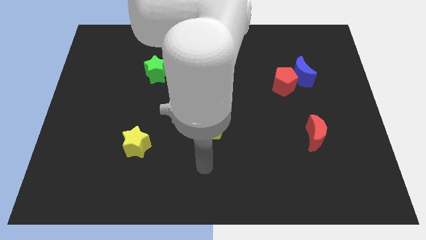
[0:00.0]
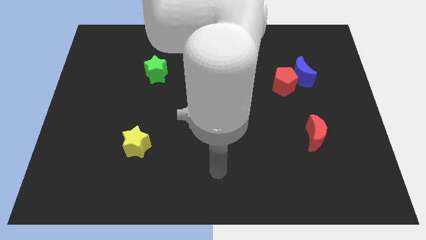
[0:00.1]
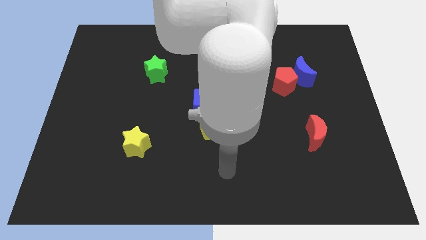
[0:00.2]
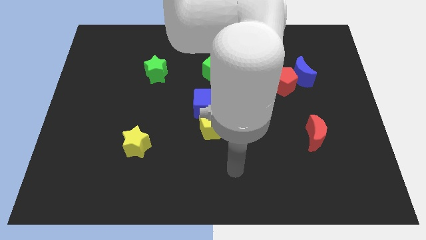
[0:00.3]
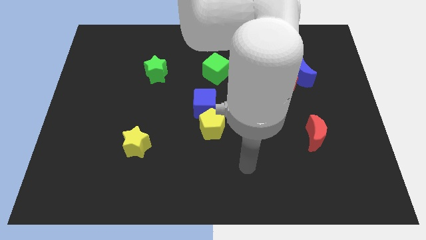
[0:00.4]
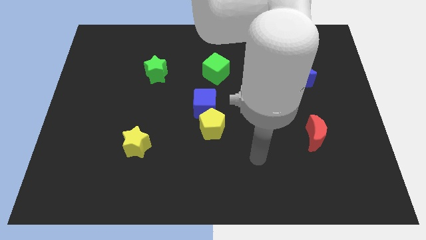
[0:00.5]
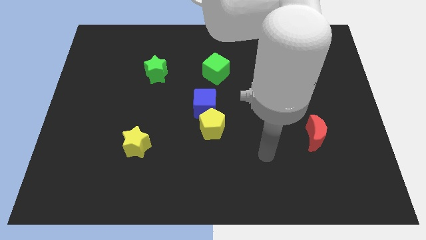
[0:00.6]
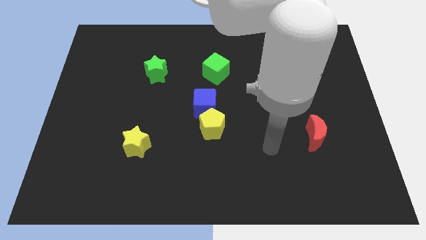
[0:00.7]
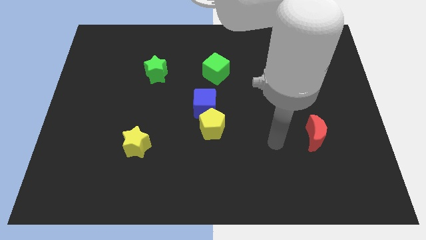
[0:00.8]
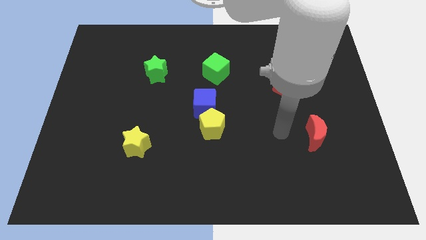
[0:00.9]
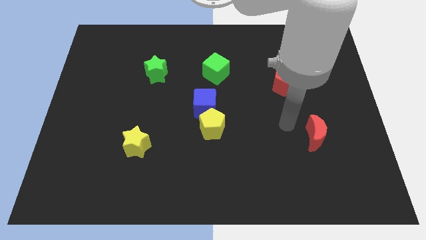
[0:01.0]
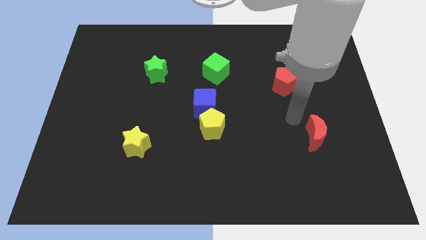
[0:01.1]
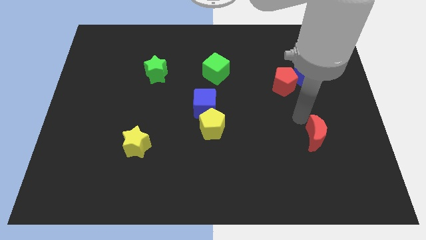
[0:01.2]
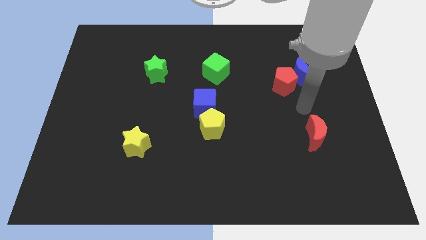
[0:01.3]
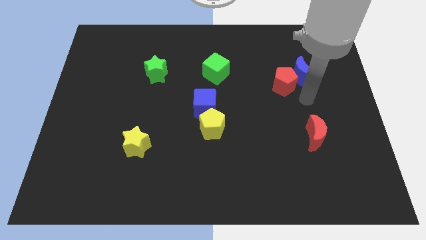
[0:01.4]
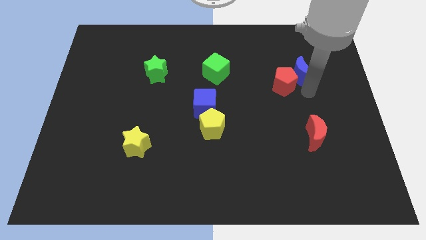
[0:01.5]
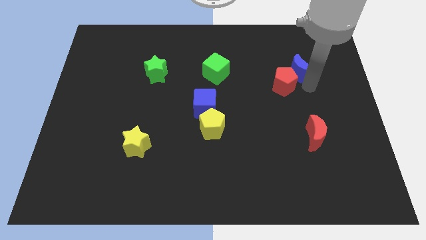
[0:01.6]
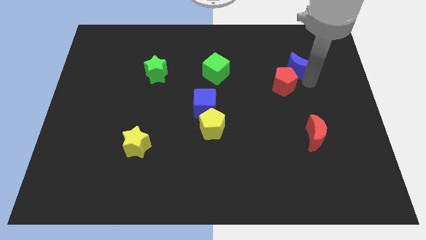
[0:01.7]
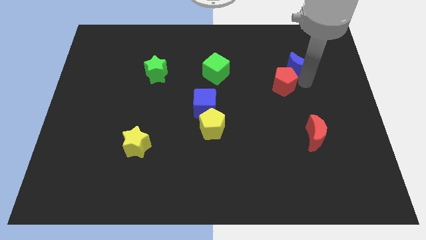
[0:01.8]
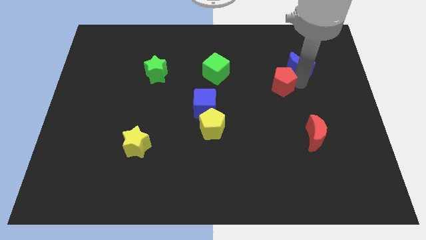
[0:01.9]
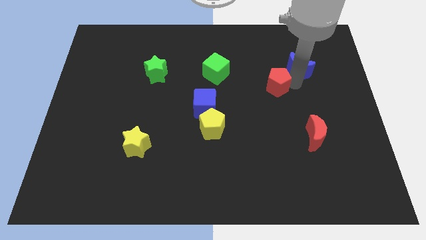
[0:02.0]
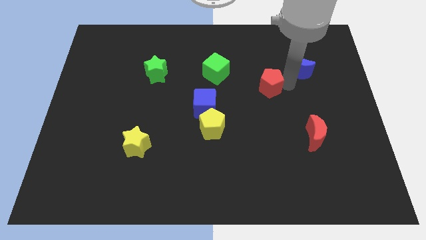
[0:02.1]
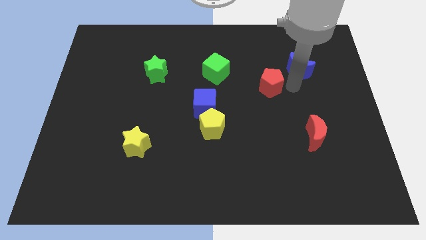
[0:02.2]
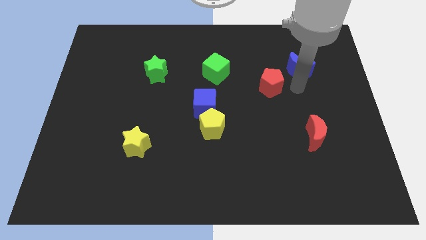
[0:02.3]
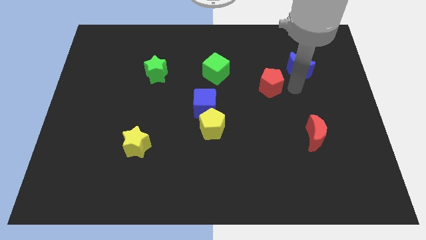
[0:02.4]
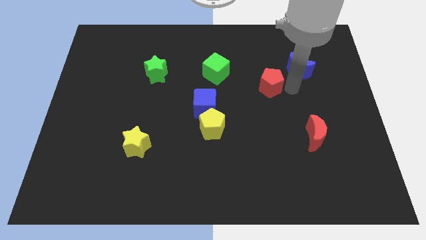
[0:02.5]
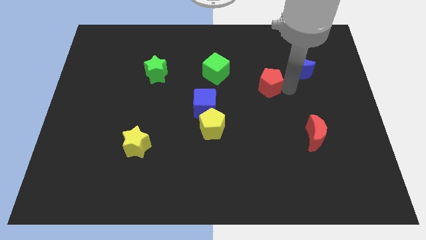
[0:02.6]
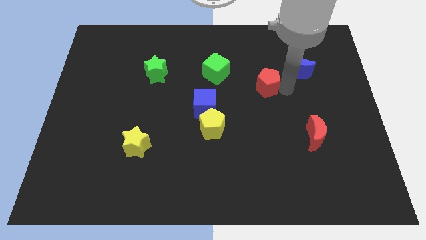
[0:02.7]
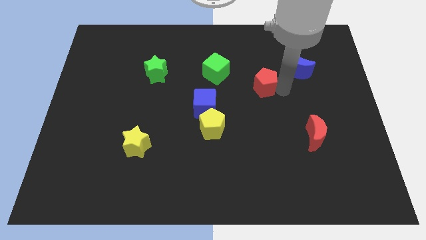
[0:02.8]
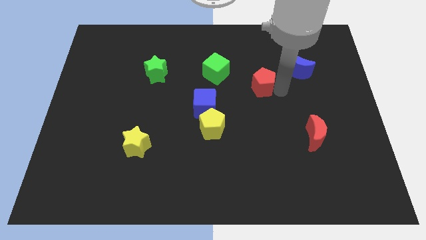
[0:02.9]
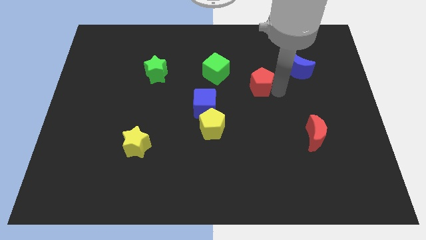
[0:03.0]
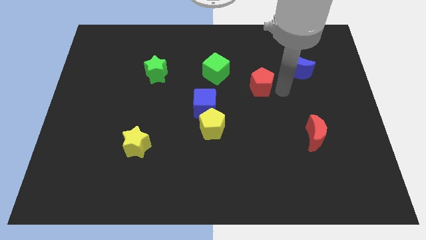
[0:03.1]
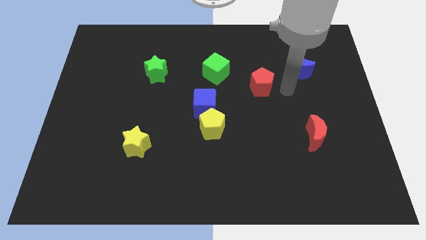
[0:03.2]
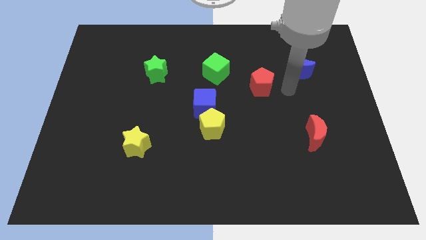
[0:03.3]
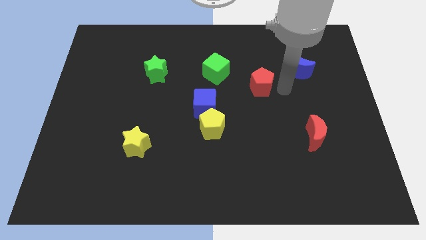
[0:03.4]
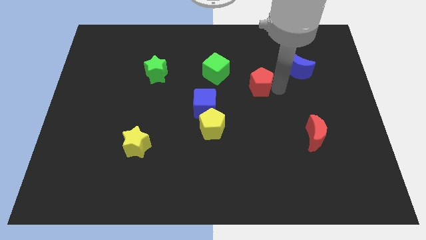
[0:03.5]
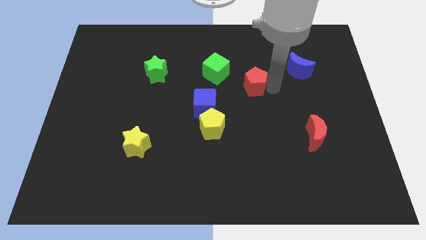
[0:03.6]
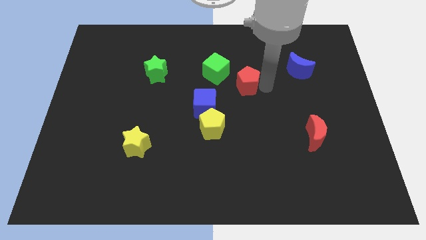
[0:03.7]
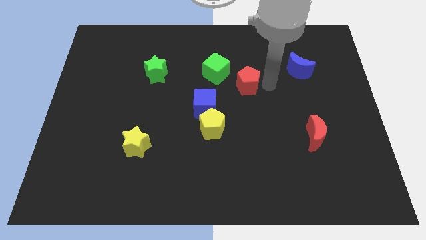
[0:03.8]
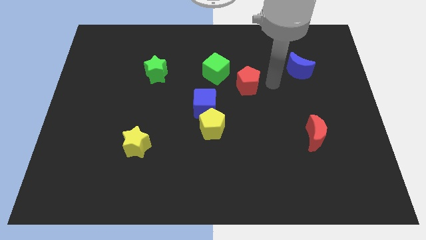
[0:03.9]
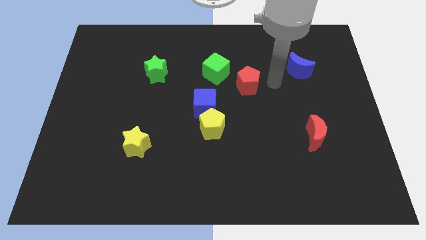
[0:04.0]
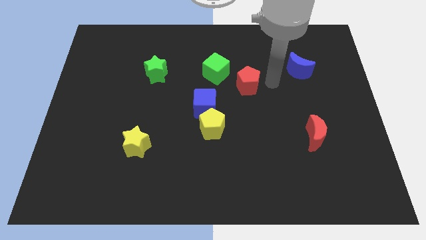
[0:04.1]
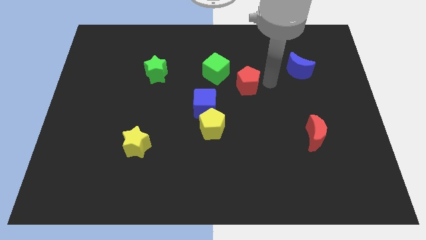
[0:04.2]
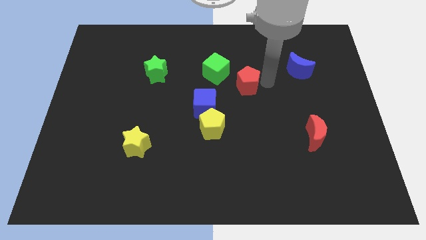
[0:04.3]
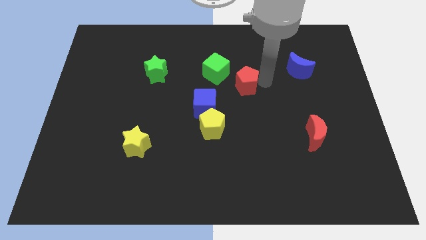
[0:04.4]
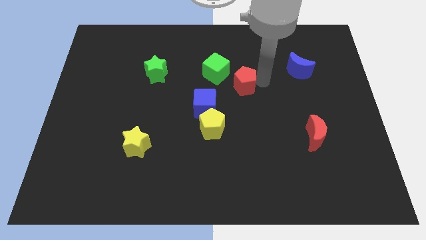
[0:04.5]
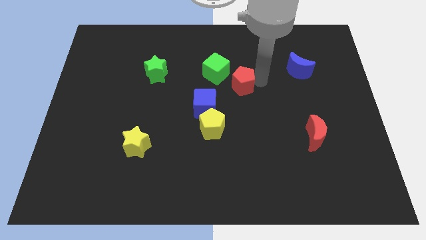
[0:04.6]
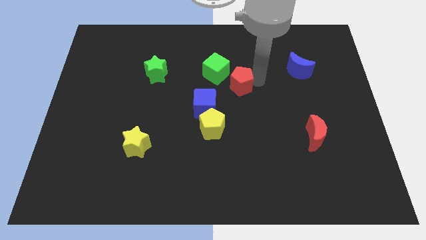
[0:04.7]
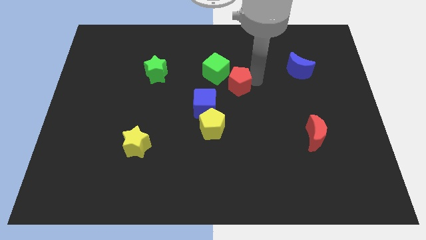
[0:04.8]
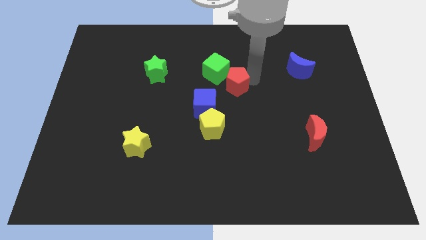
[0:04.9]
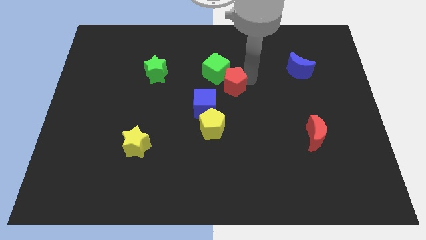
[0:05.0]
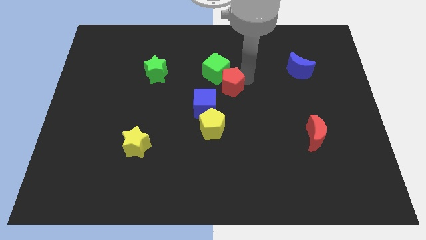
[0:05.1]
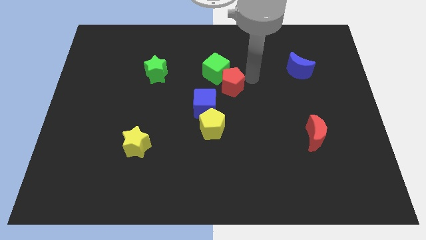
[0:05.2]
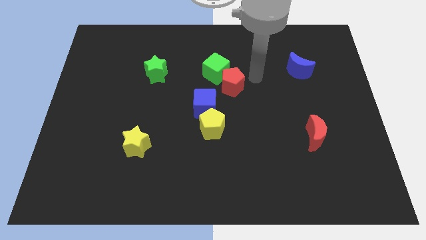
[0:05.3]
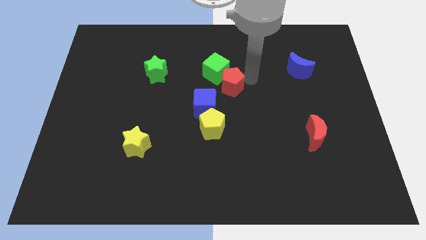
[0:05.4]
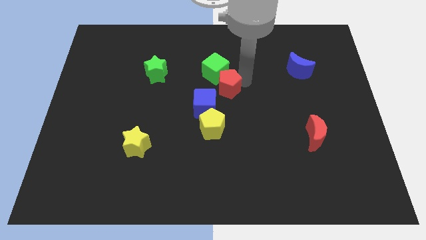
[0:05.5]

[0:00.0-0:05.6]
put the red pentagon above the yellow pentagon
